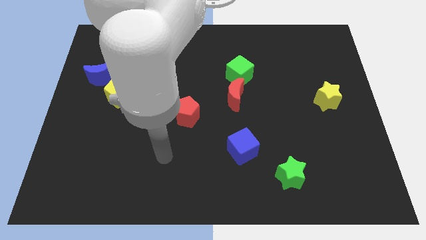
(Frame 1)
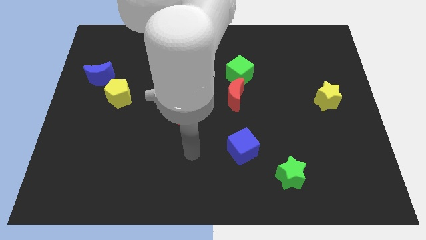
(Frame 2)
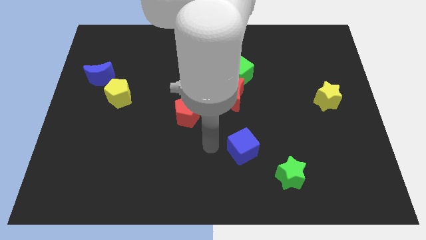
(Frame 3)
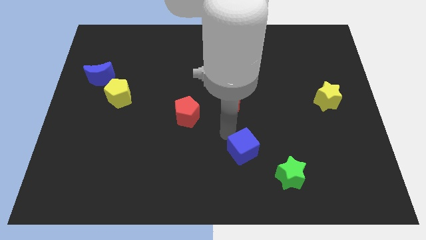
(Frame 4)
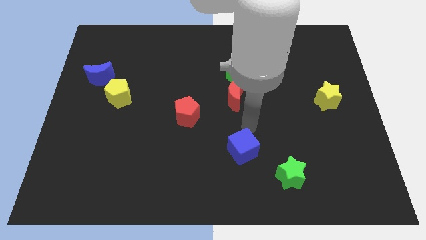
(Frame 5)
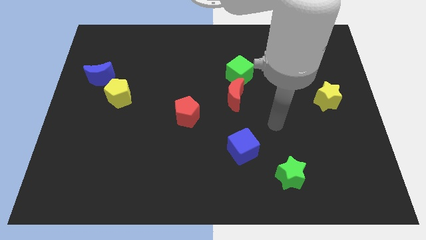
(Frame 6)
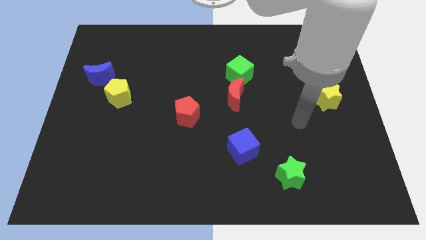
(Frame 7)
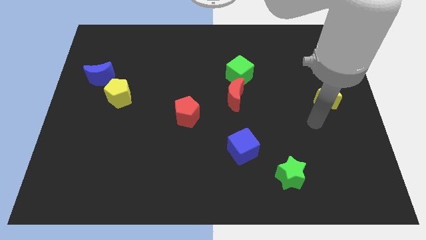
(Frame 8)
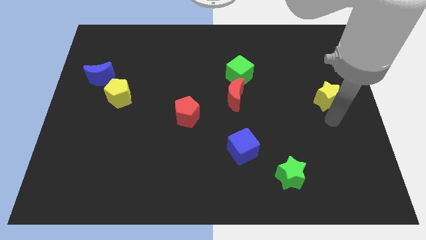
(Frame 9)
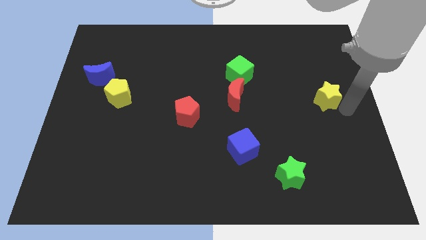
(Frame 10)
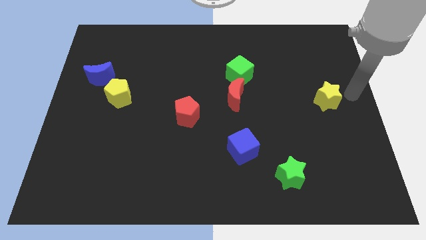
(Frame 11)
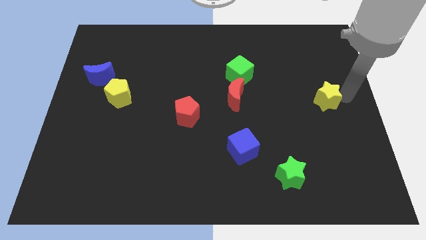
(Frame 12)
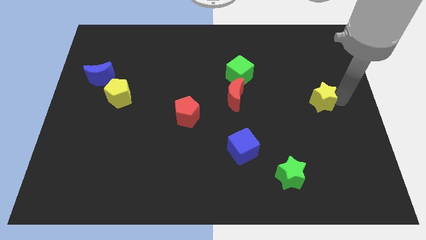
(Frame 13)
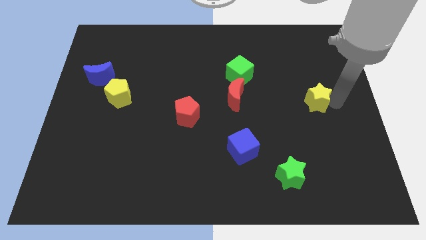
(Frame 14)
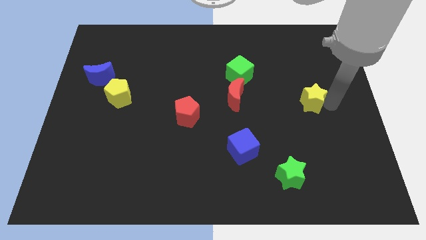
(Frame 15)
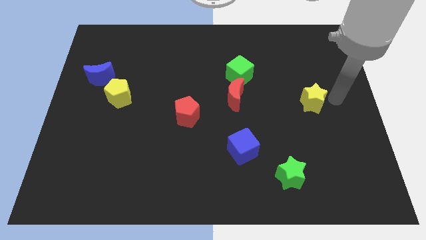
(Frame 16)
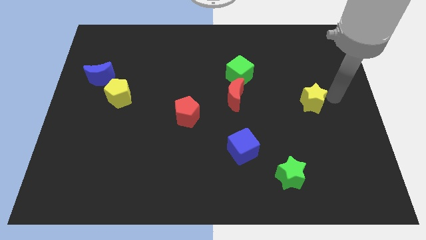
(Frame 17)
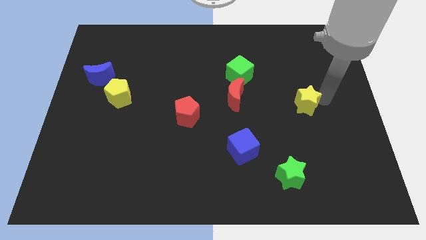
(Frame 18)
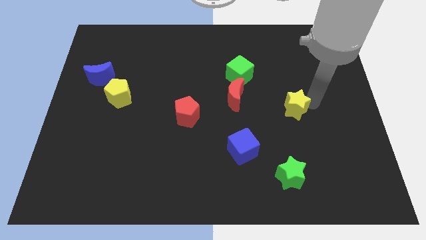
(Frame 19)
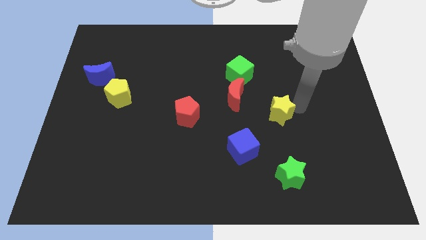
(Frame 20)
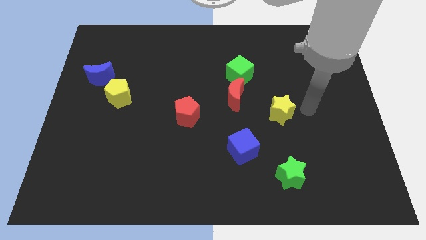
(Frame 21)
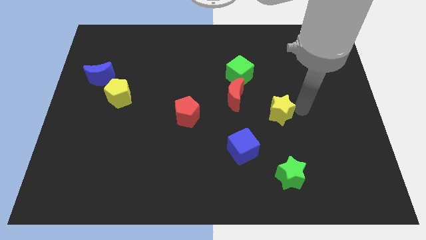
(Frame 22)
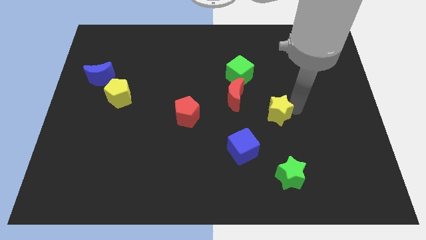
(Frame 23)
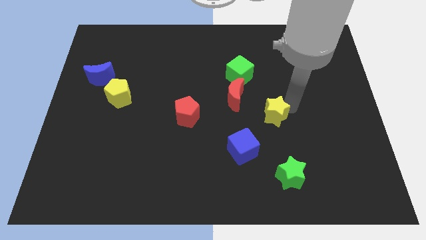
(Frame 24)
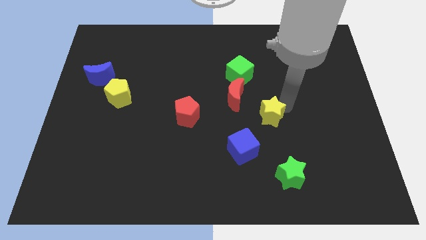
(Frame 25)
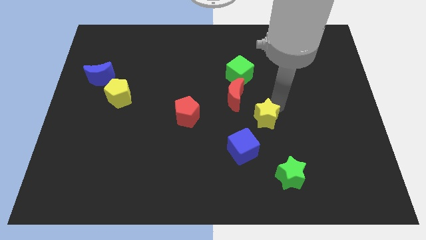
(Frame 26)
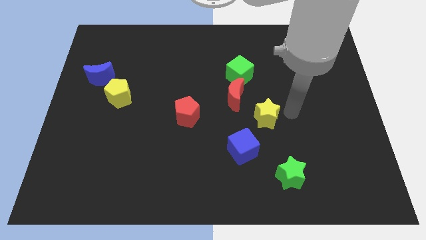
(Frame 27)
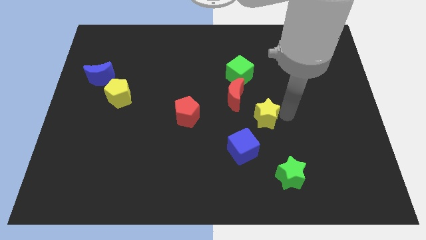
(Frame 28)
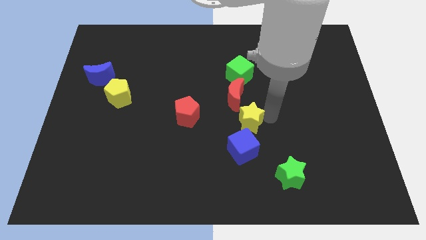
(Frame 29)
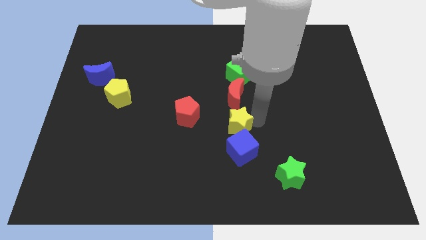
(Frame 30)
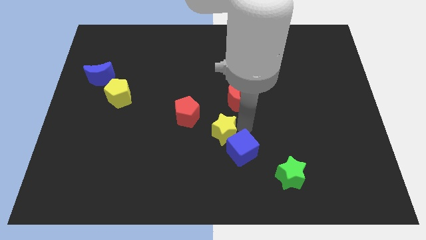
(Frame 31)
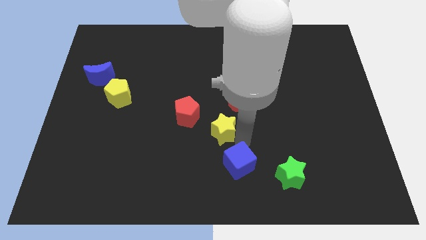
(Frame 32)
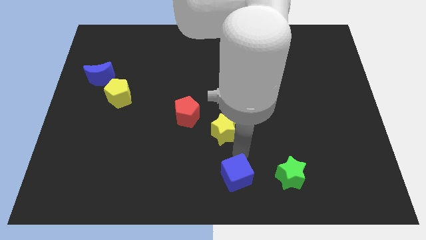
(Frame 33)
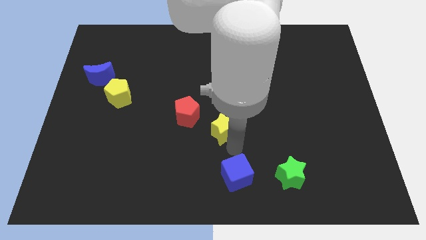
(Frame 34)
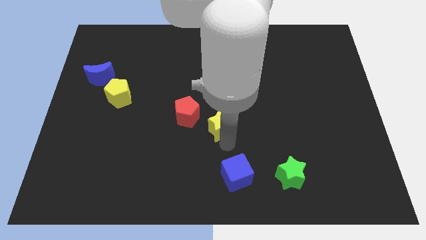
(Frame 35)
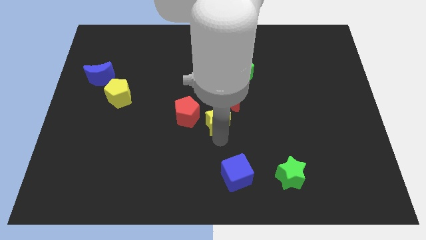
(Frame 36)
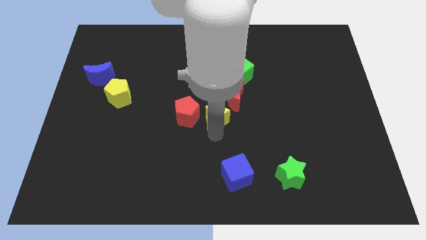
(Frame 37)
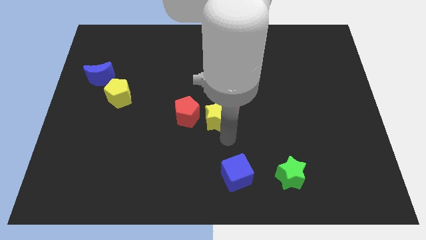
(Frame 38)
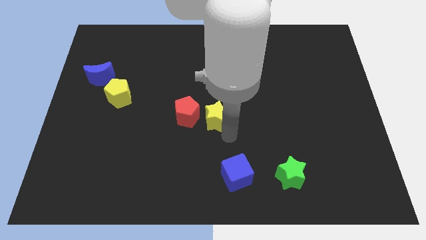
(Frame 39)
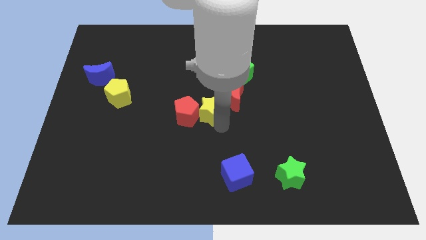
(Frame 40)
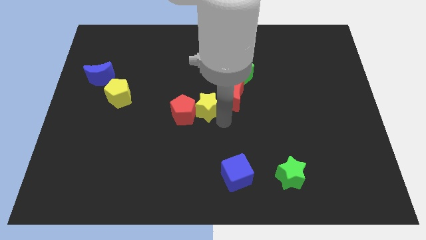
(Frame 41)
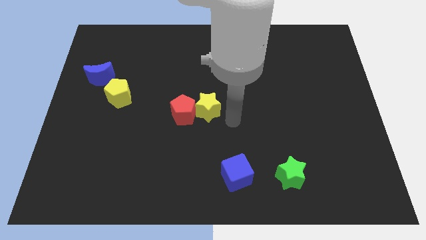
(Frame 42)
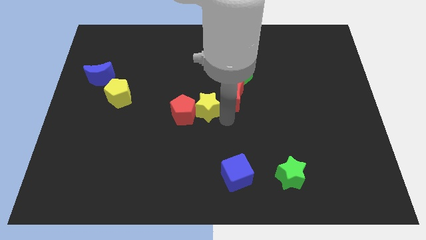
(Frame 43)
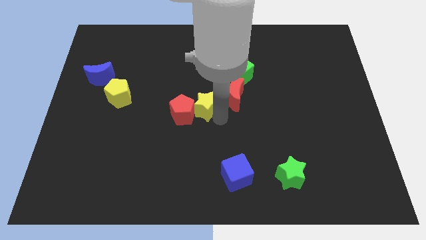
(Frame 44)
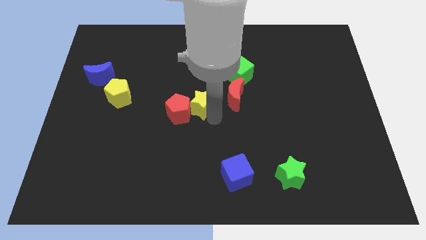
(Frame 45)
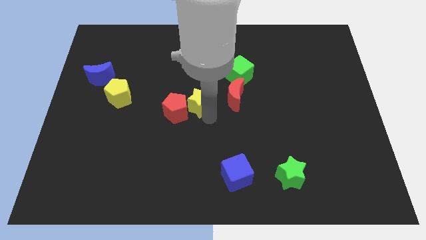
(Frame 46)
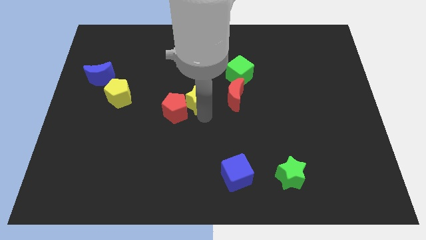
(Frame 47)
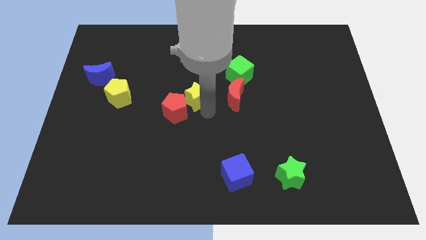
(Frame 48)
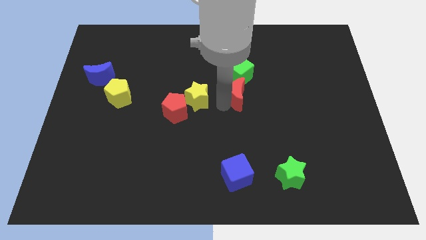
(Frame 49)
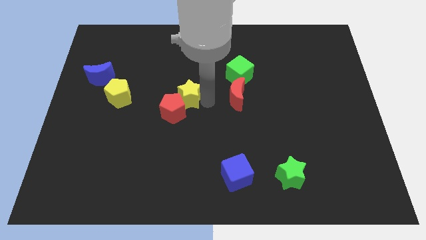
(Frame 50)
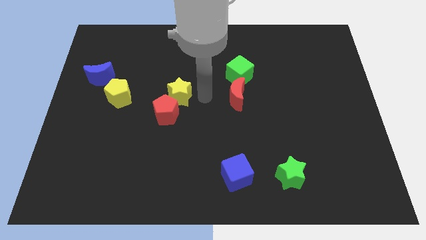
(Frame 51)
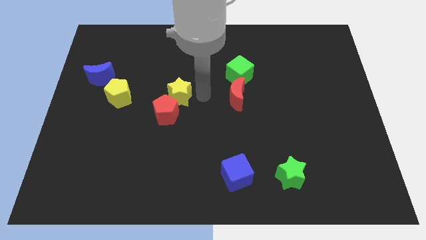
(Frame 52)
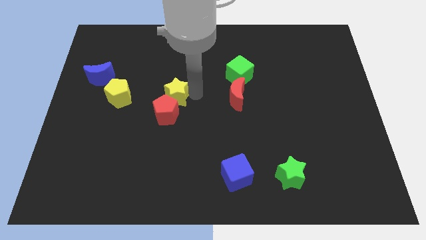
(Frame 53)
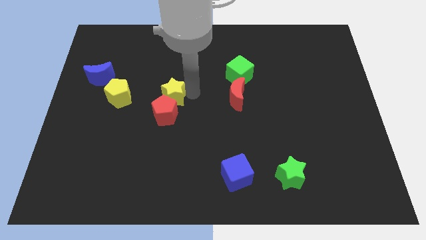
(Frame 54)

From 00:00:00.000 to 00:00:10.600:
slide the yellow star diagonally up and to the left of the red pentagon

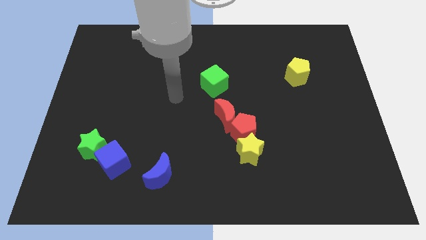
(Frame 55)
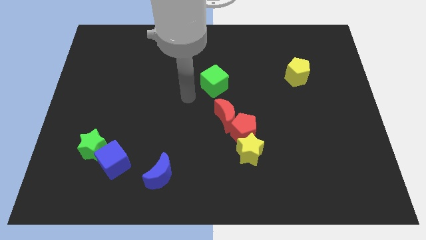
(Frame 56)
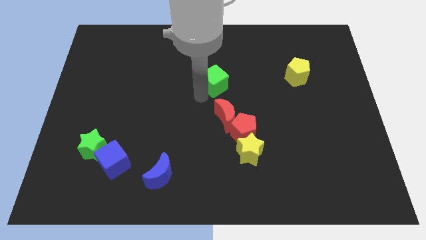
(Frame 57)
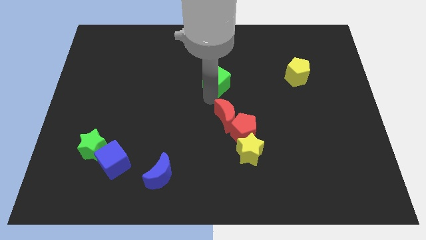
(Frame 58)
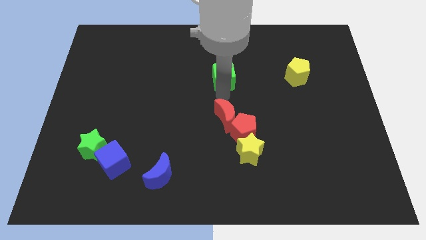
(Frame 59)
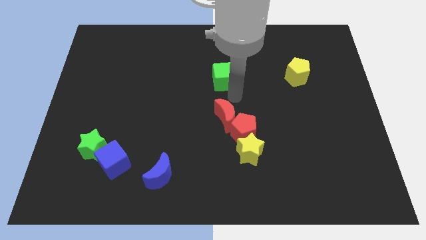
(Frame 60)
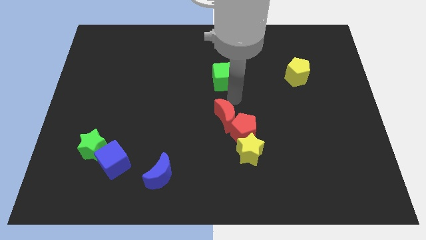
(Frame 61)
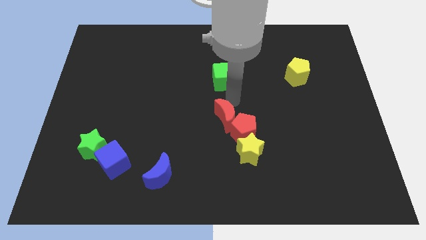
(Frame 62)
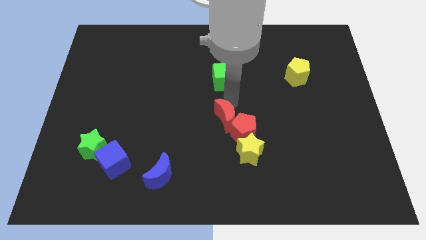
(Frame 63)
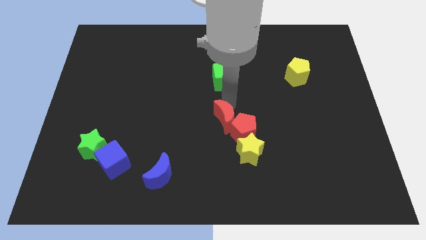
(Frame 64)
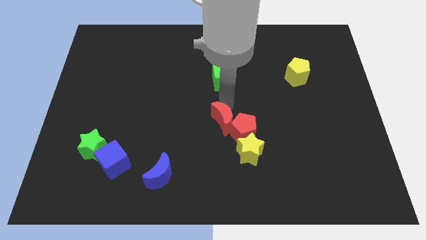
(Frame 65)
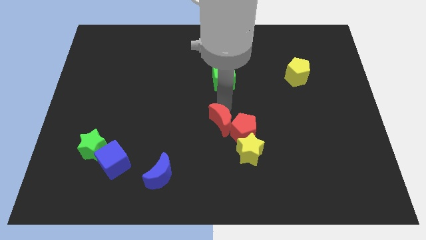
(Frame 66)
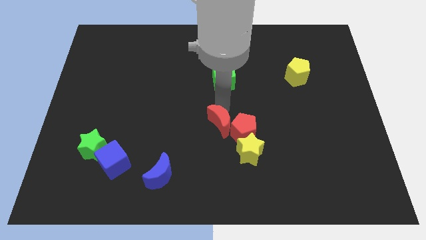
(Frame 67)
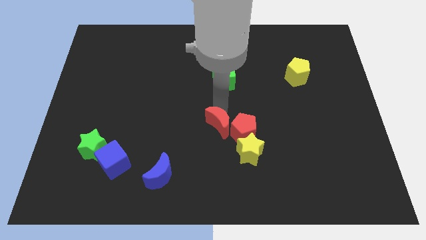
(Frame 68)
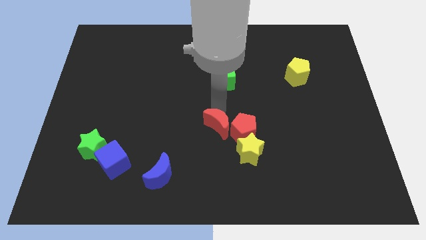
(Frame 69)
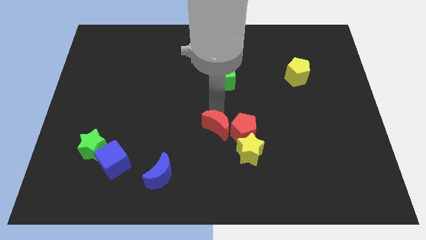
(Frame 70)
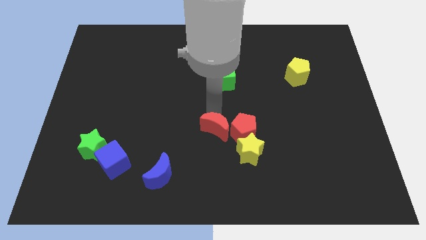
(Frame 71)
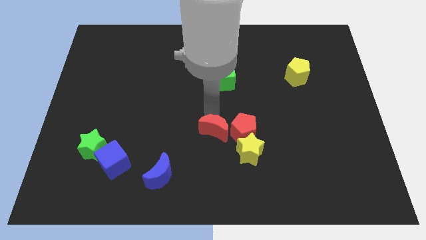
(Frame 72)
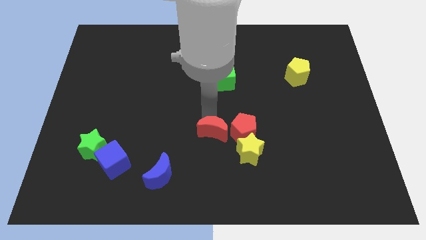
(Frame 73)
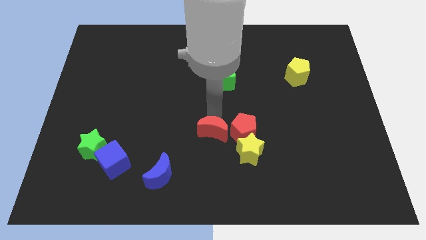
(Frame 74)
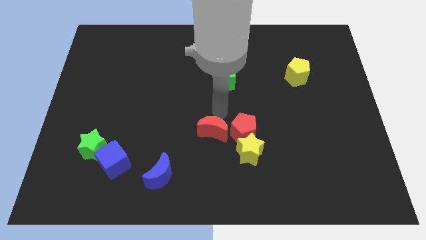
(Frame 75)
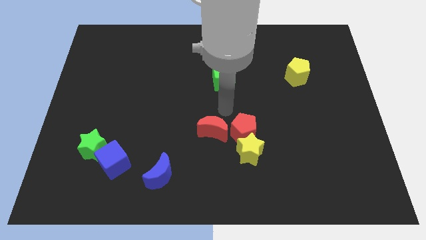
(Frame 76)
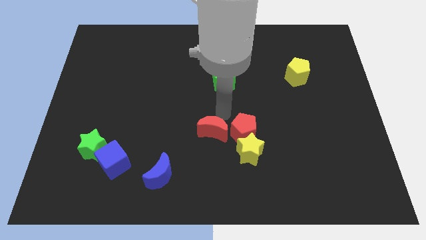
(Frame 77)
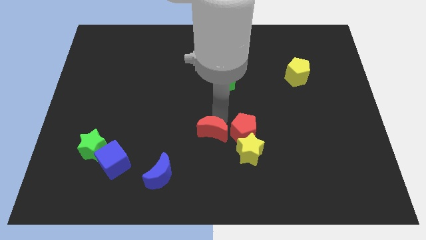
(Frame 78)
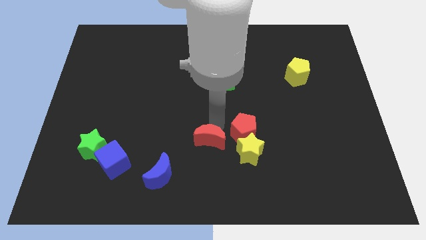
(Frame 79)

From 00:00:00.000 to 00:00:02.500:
push the red moon just left of the yellow star
